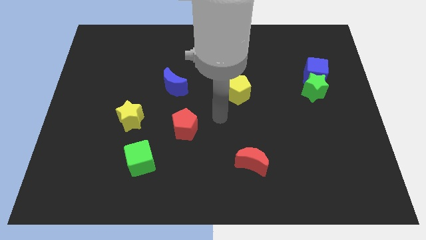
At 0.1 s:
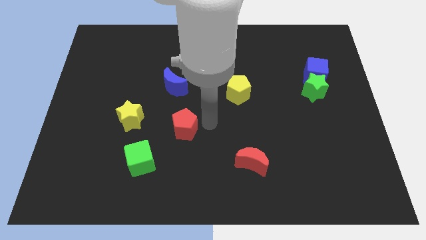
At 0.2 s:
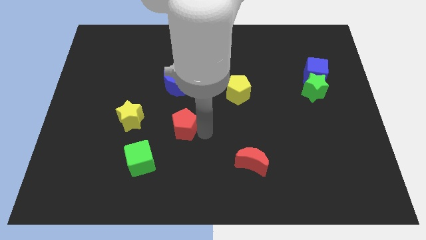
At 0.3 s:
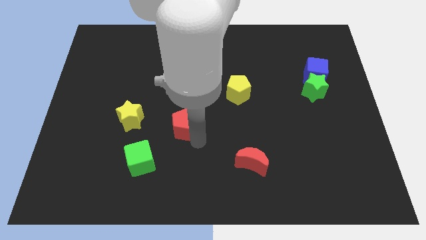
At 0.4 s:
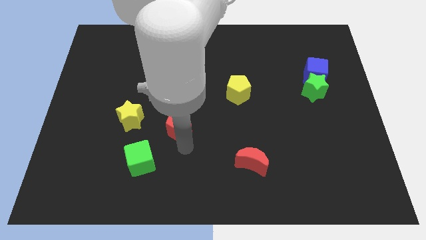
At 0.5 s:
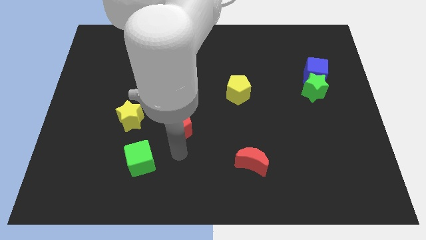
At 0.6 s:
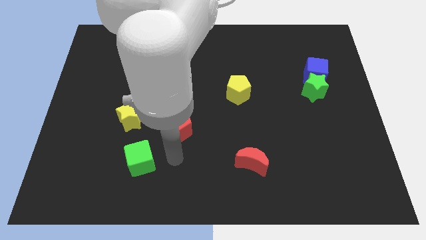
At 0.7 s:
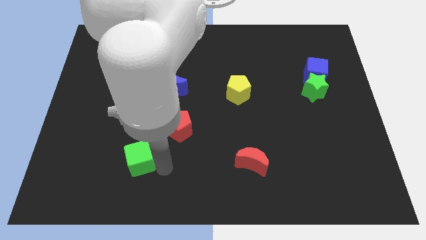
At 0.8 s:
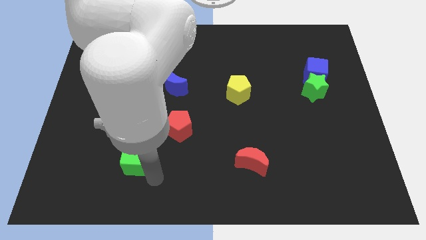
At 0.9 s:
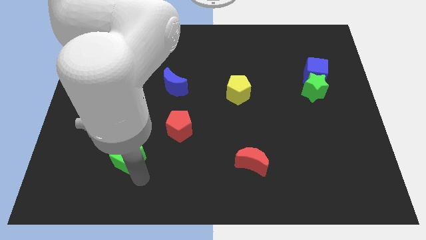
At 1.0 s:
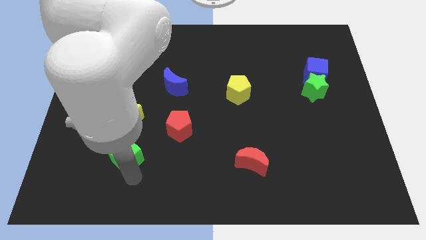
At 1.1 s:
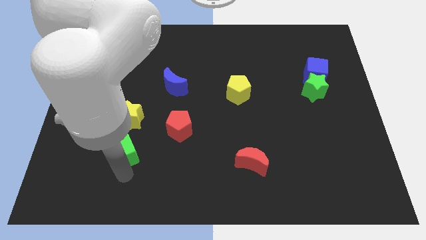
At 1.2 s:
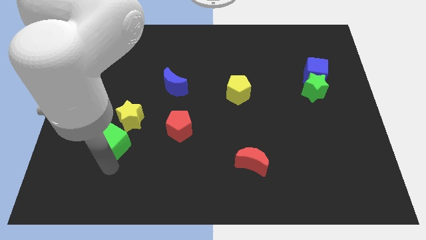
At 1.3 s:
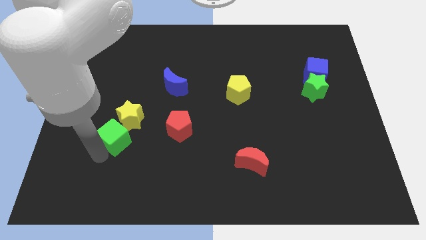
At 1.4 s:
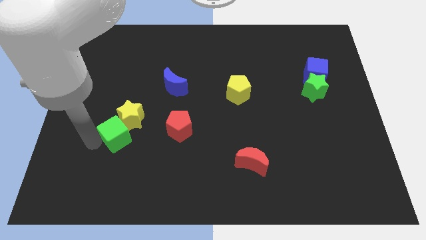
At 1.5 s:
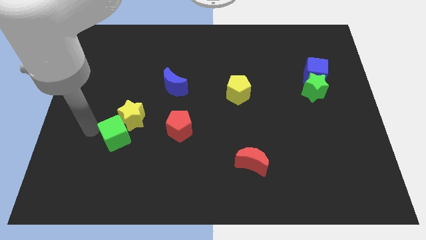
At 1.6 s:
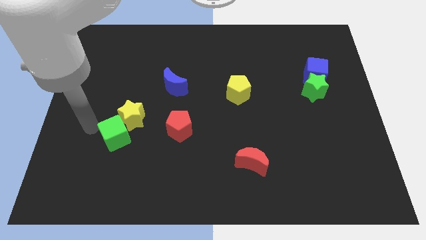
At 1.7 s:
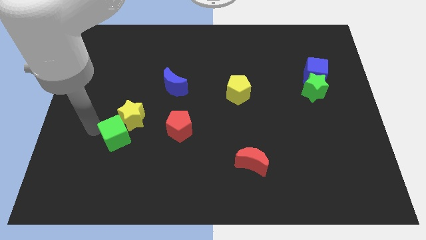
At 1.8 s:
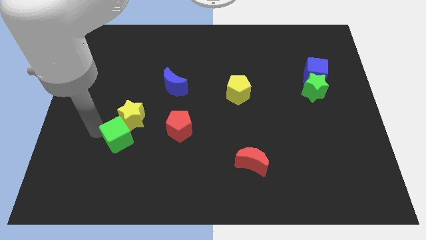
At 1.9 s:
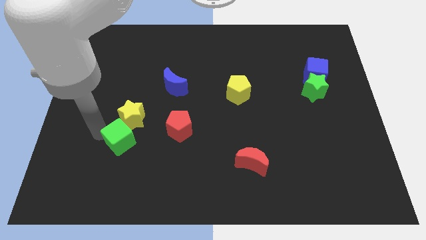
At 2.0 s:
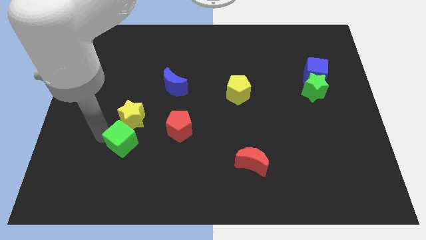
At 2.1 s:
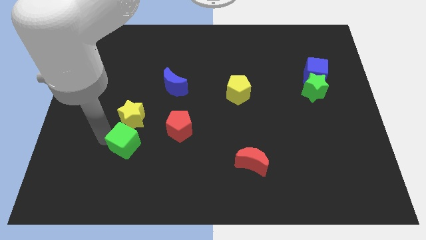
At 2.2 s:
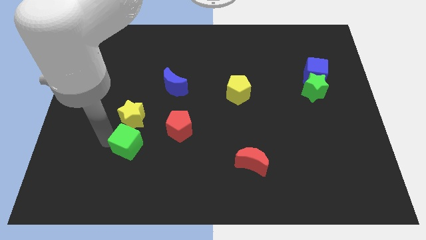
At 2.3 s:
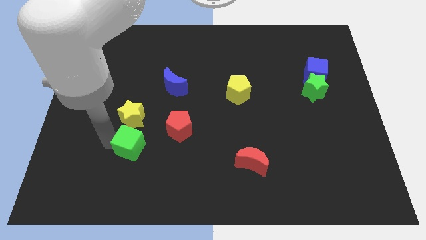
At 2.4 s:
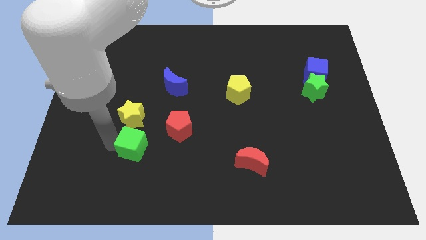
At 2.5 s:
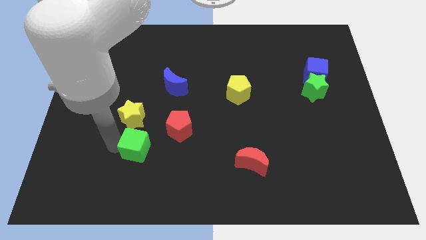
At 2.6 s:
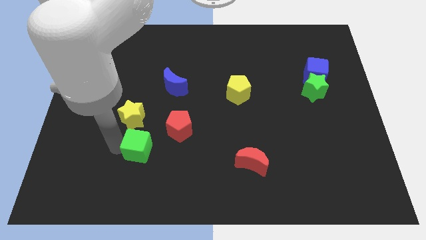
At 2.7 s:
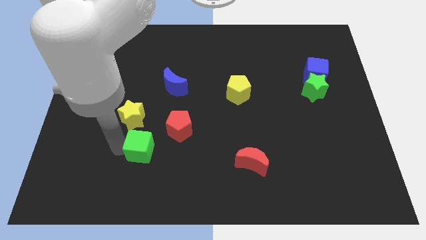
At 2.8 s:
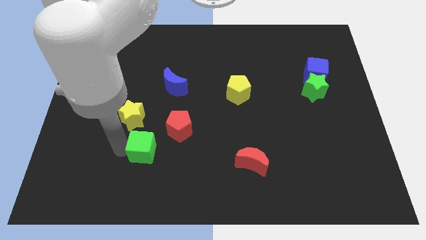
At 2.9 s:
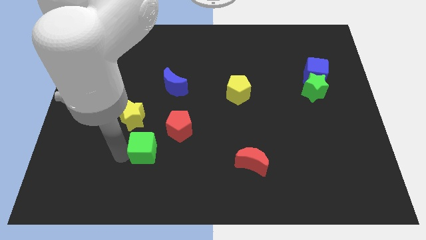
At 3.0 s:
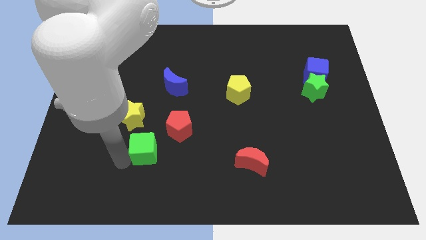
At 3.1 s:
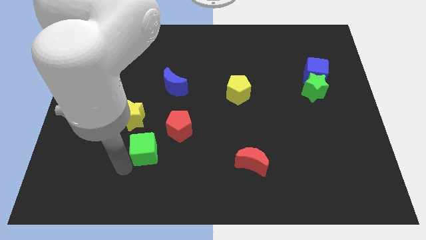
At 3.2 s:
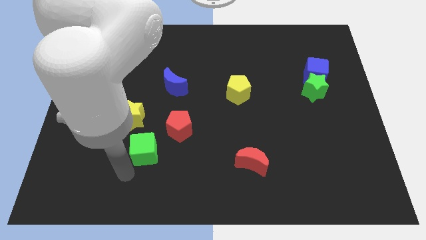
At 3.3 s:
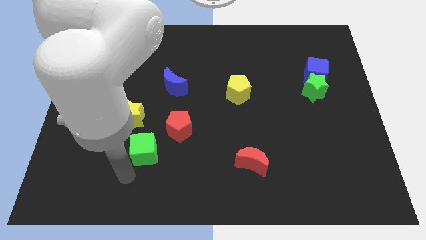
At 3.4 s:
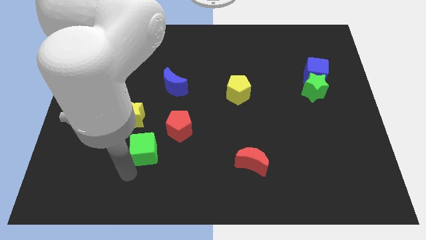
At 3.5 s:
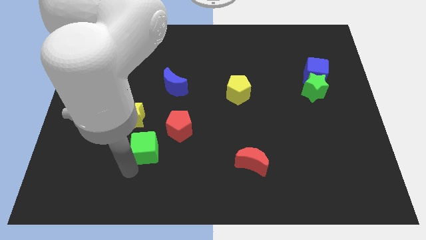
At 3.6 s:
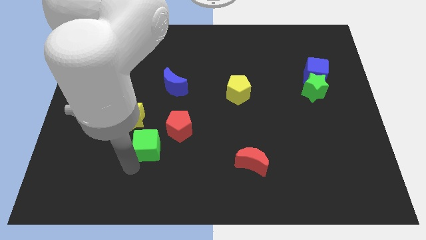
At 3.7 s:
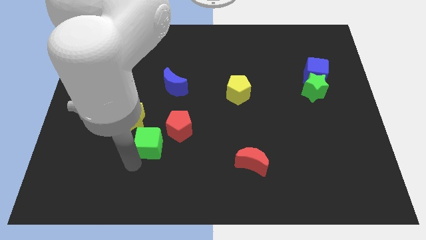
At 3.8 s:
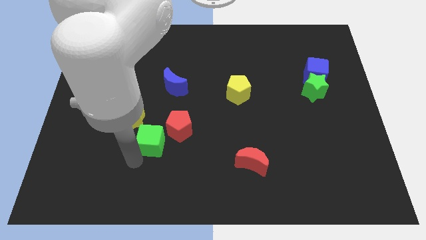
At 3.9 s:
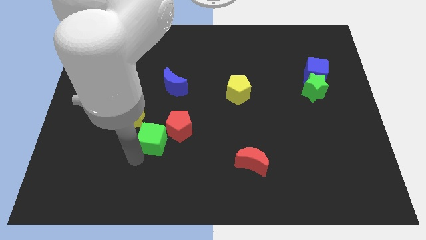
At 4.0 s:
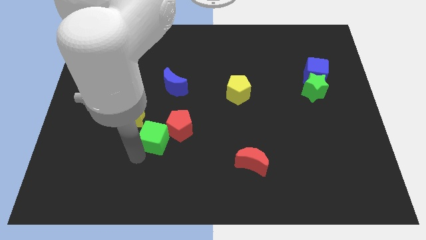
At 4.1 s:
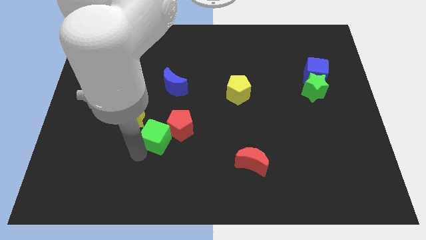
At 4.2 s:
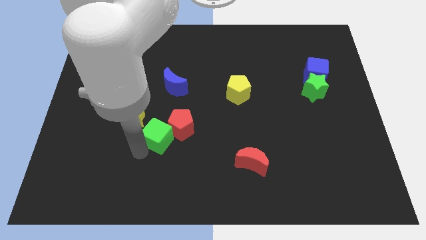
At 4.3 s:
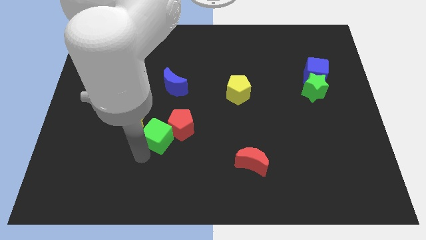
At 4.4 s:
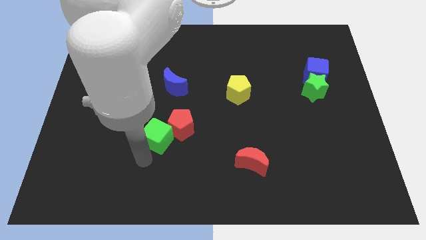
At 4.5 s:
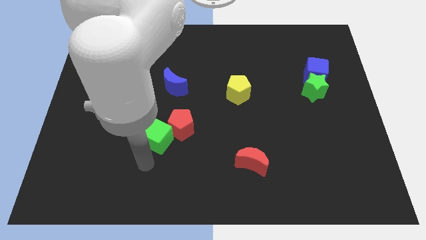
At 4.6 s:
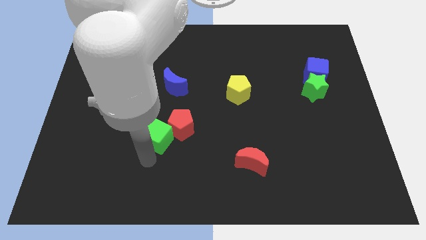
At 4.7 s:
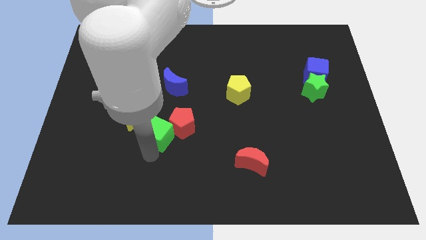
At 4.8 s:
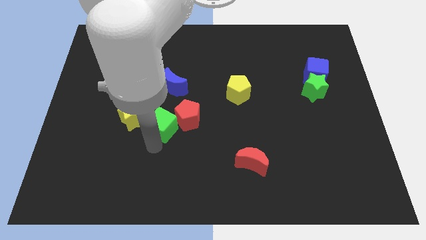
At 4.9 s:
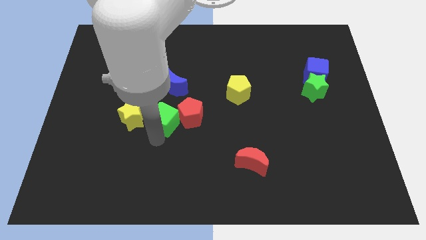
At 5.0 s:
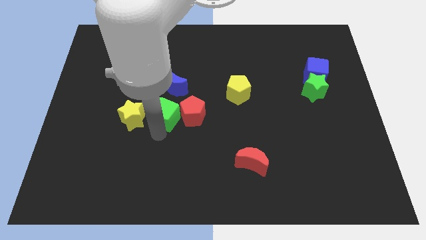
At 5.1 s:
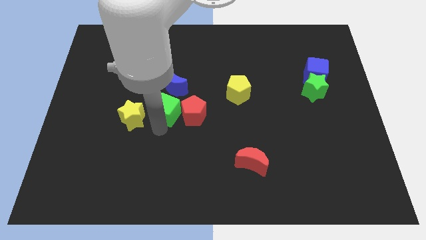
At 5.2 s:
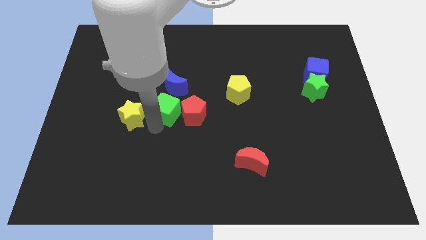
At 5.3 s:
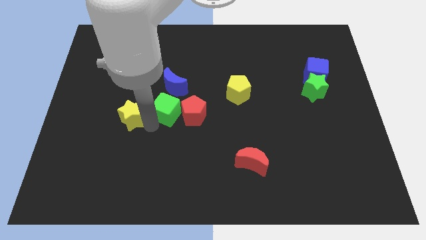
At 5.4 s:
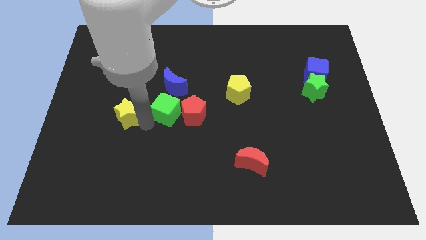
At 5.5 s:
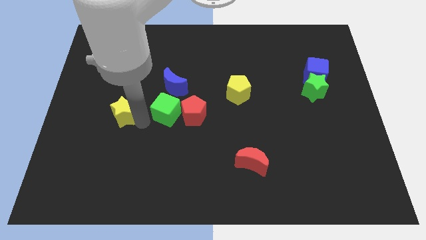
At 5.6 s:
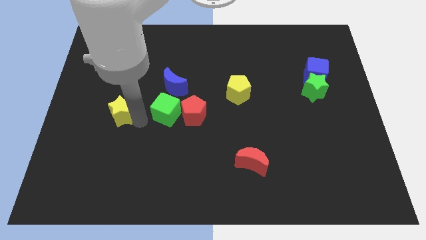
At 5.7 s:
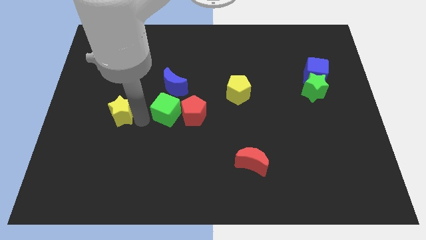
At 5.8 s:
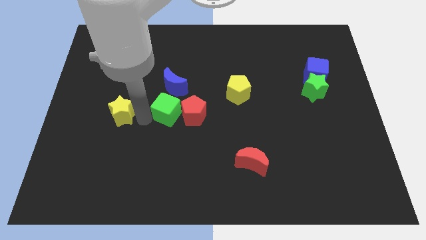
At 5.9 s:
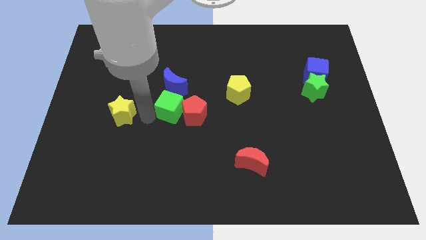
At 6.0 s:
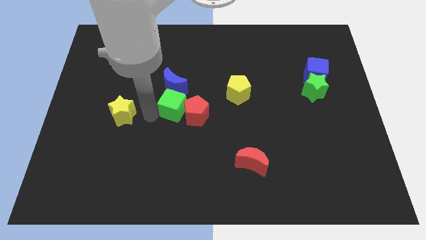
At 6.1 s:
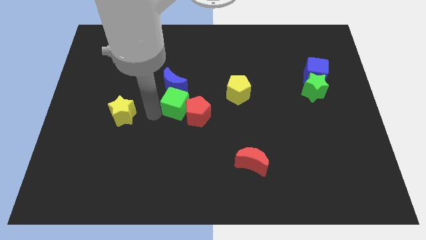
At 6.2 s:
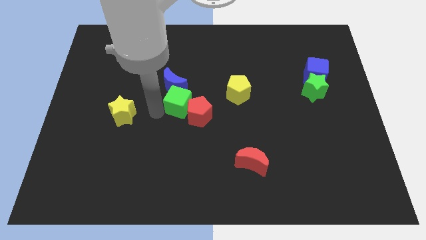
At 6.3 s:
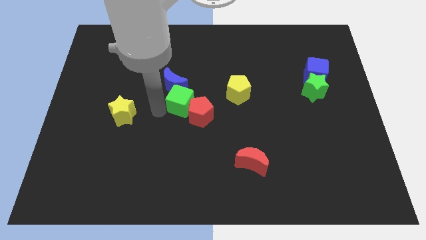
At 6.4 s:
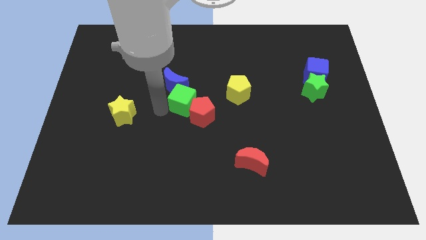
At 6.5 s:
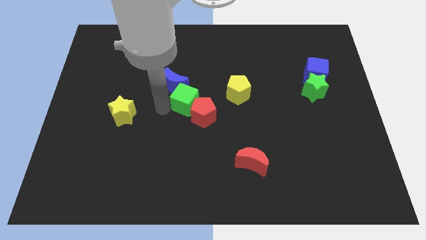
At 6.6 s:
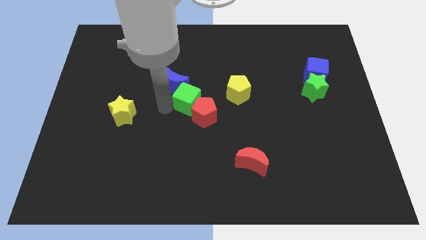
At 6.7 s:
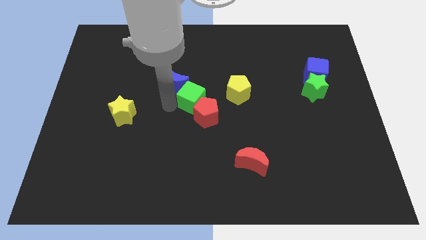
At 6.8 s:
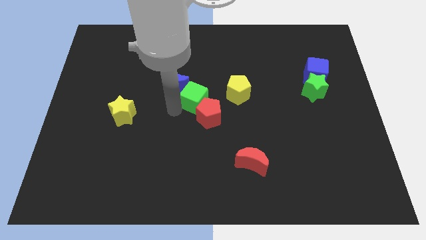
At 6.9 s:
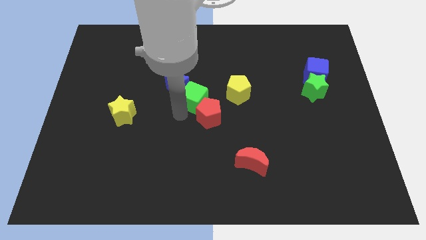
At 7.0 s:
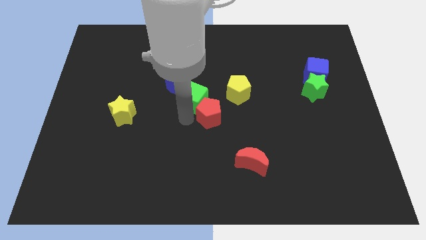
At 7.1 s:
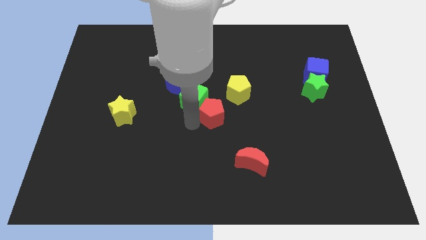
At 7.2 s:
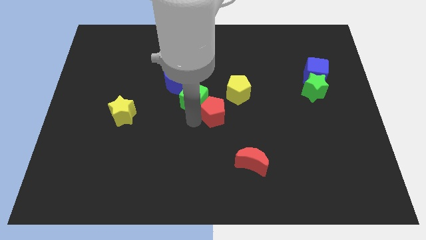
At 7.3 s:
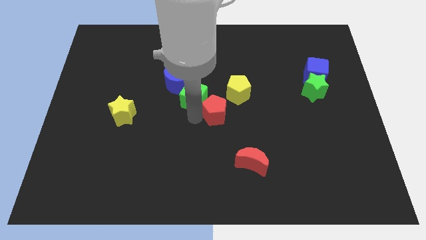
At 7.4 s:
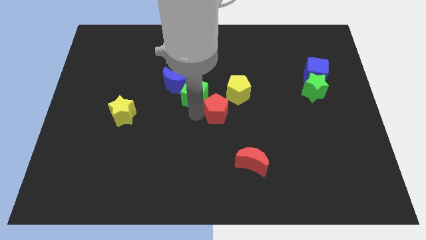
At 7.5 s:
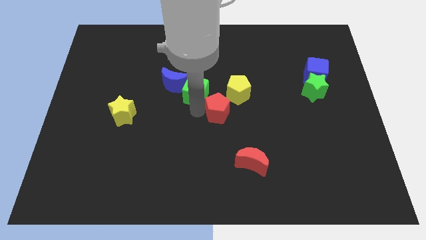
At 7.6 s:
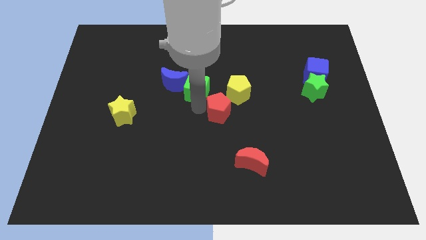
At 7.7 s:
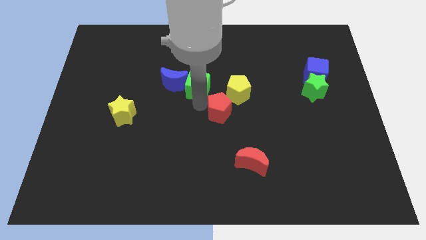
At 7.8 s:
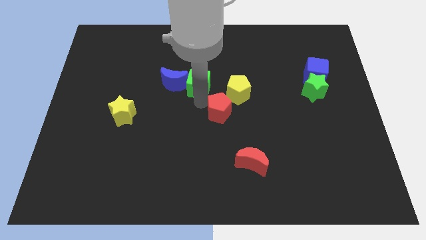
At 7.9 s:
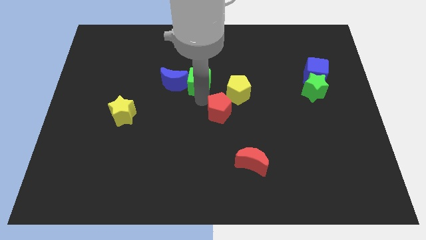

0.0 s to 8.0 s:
slide the green cube to the top right of the blue moon

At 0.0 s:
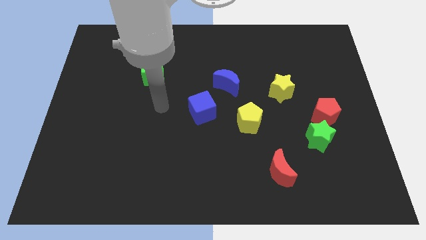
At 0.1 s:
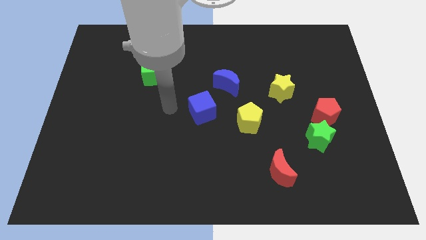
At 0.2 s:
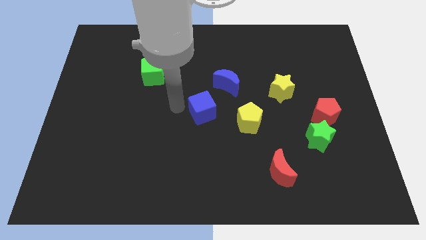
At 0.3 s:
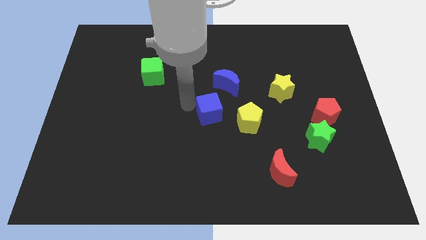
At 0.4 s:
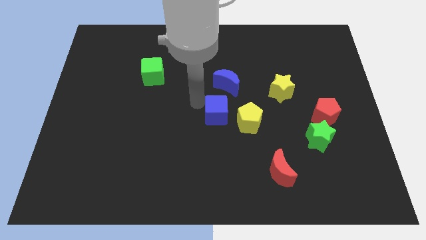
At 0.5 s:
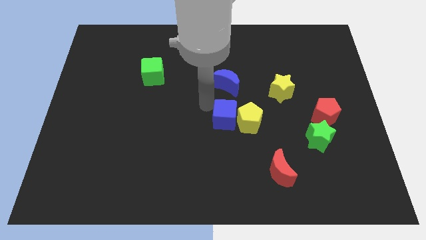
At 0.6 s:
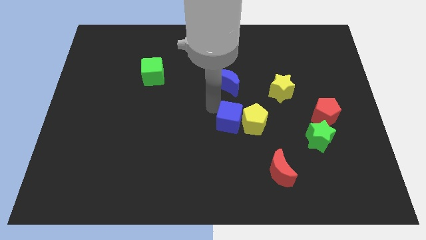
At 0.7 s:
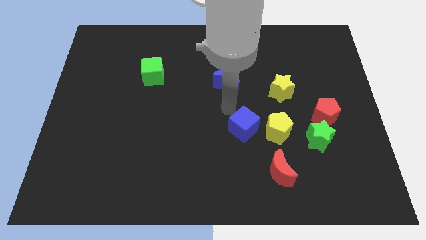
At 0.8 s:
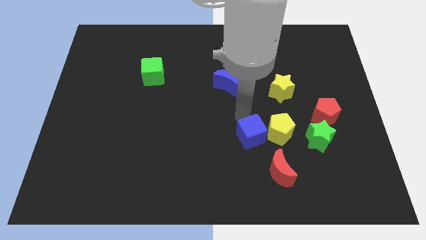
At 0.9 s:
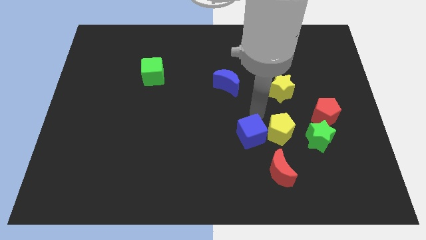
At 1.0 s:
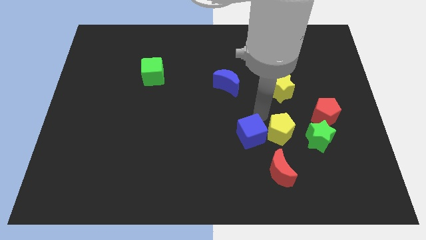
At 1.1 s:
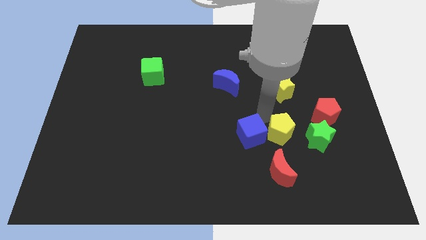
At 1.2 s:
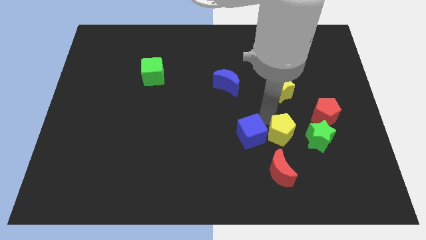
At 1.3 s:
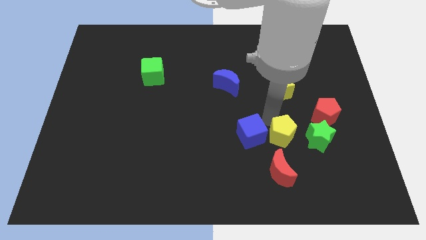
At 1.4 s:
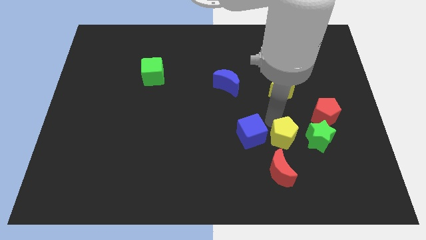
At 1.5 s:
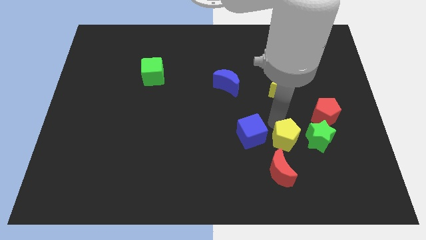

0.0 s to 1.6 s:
push the yellow pentagon to the top right of the red moon
